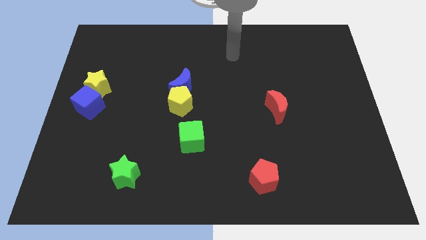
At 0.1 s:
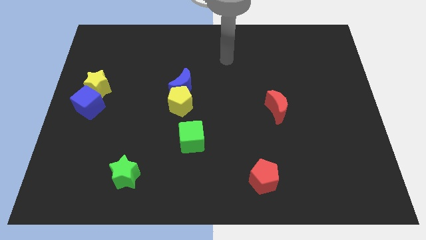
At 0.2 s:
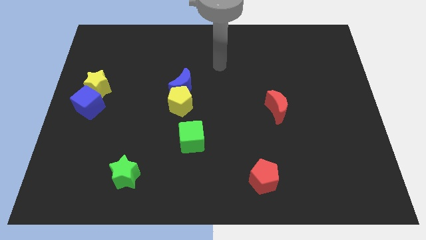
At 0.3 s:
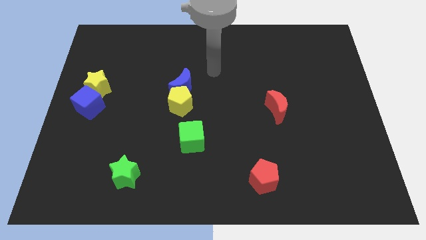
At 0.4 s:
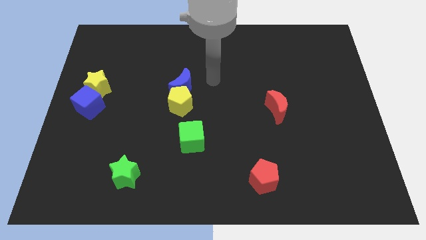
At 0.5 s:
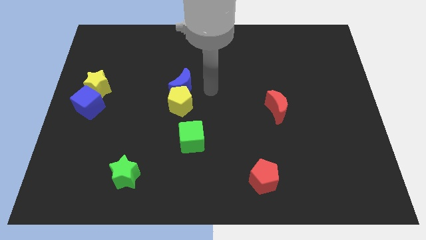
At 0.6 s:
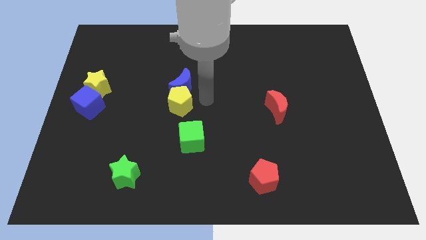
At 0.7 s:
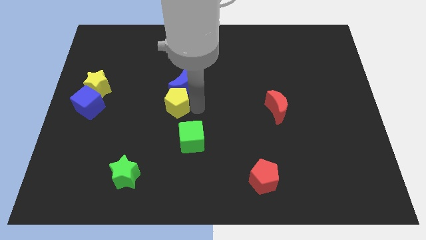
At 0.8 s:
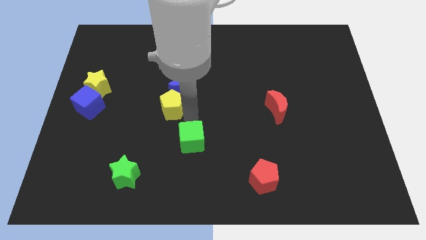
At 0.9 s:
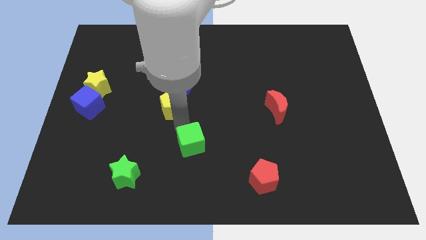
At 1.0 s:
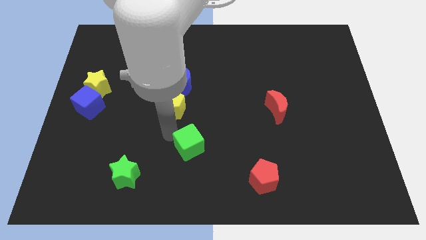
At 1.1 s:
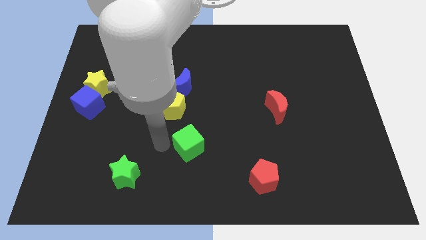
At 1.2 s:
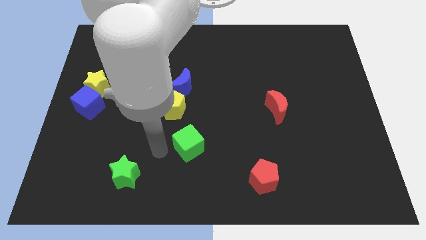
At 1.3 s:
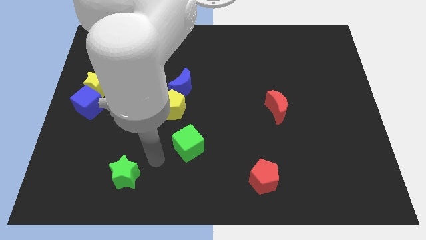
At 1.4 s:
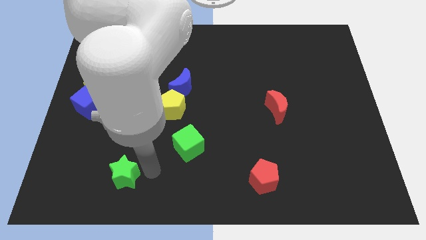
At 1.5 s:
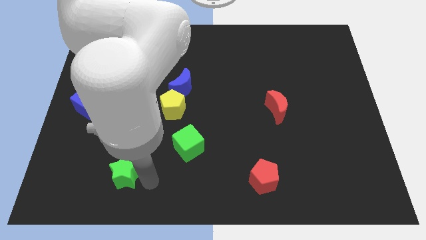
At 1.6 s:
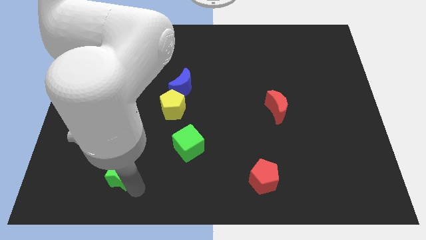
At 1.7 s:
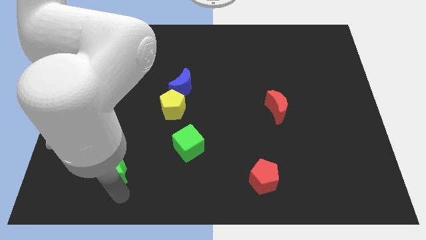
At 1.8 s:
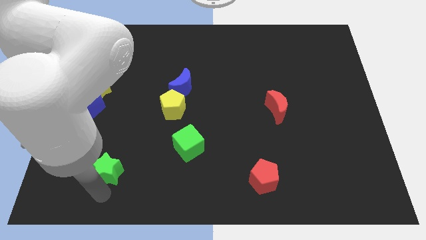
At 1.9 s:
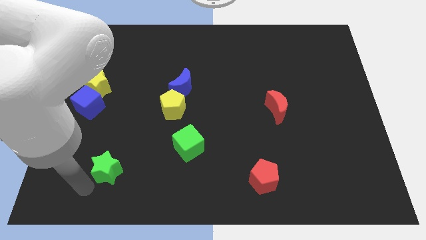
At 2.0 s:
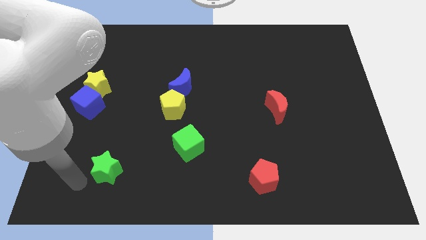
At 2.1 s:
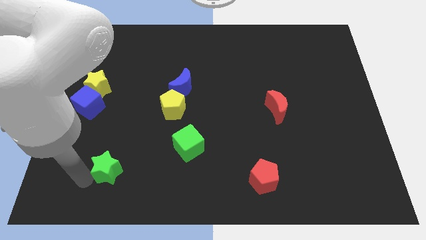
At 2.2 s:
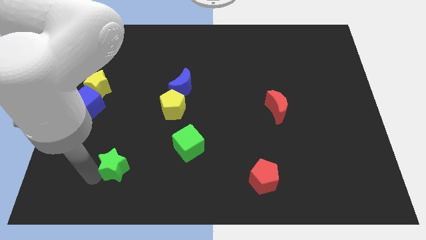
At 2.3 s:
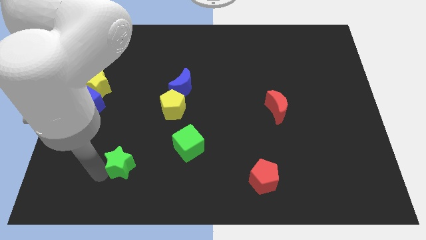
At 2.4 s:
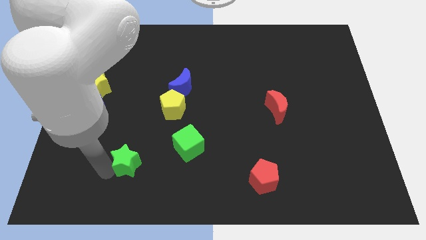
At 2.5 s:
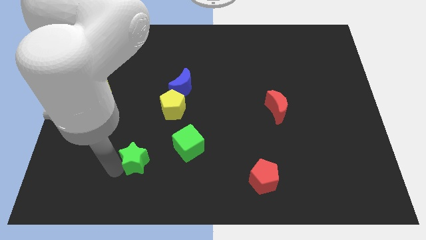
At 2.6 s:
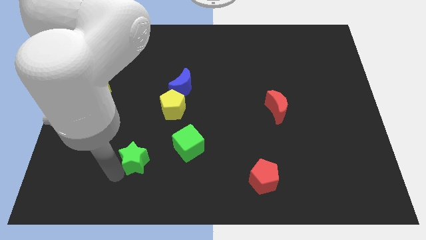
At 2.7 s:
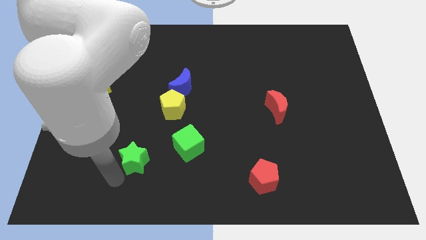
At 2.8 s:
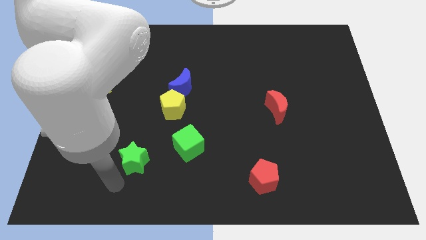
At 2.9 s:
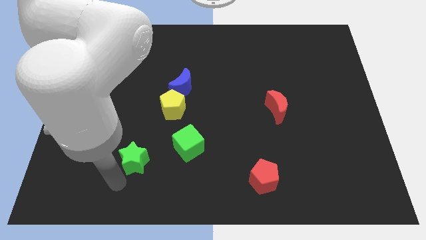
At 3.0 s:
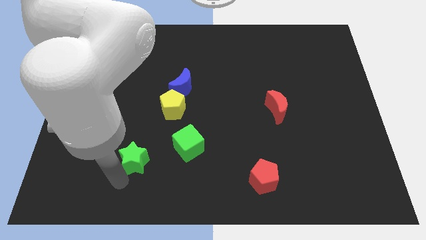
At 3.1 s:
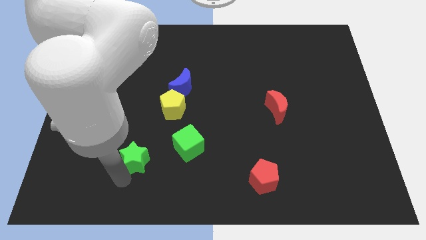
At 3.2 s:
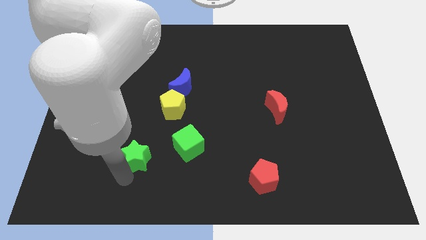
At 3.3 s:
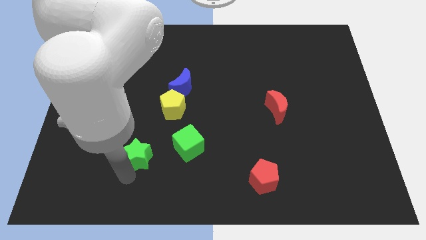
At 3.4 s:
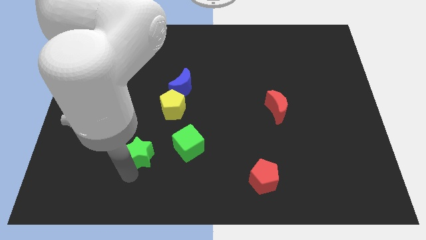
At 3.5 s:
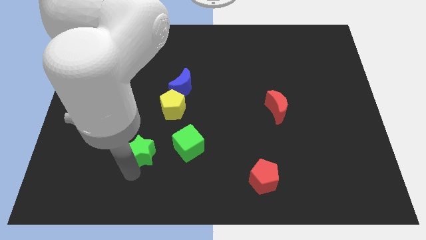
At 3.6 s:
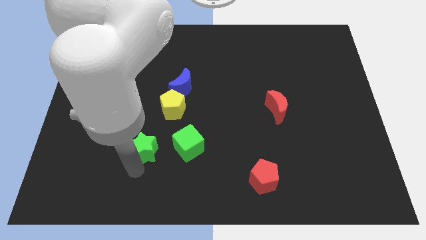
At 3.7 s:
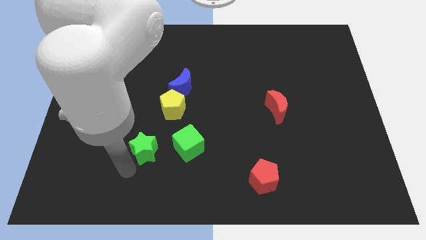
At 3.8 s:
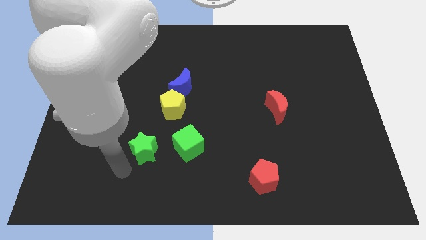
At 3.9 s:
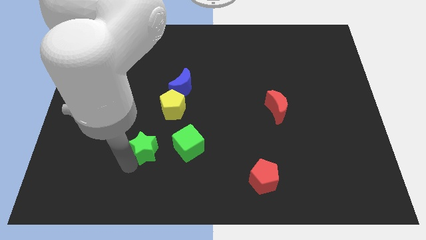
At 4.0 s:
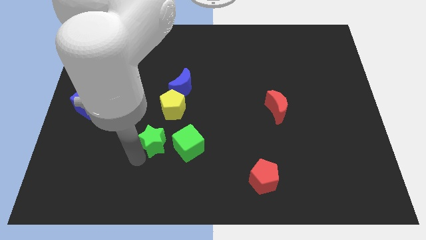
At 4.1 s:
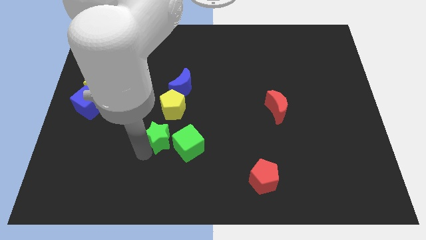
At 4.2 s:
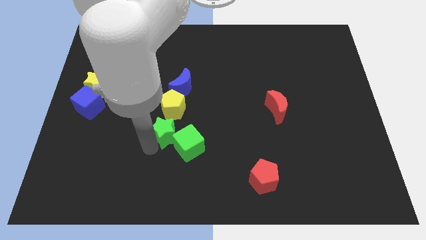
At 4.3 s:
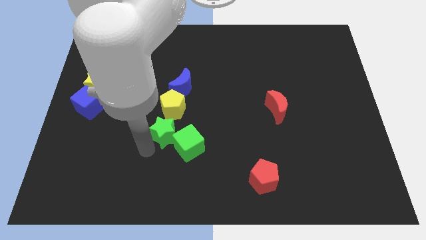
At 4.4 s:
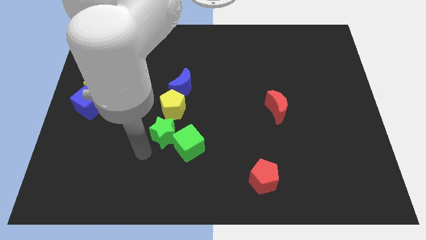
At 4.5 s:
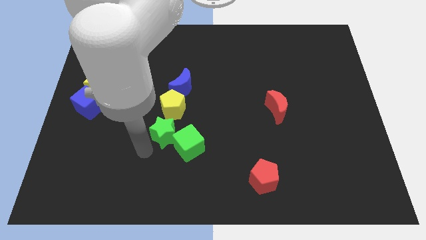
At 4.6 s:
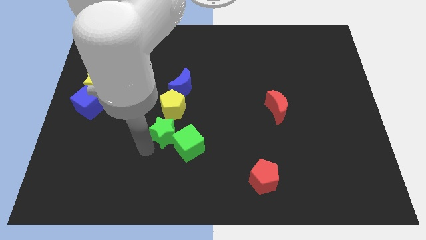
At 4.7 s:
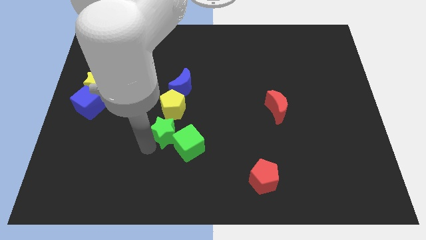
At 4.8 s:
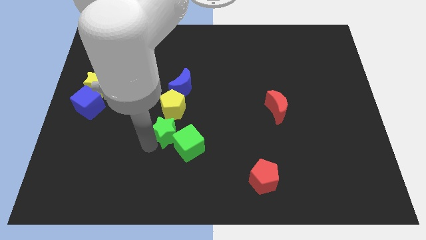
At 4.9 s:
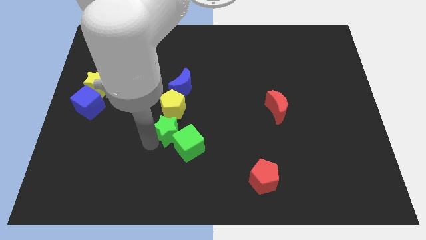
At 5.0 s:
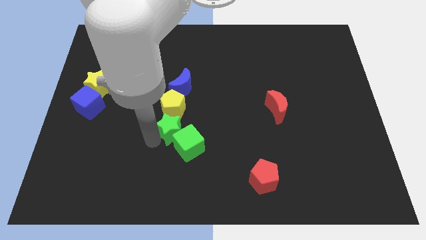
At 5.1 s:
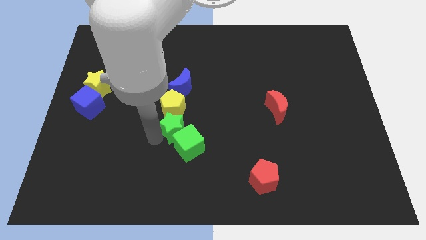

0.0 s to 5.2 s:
push the green star to the middle of the board

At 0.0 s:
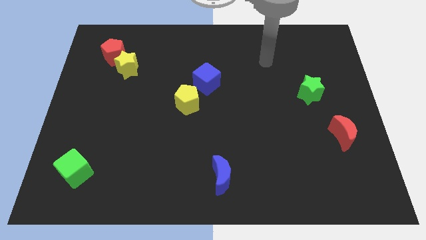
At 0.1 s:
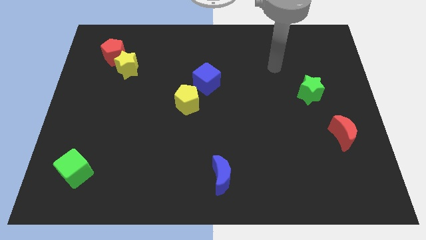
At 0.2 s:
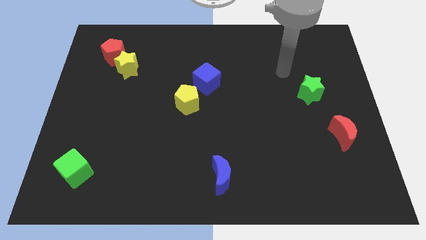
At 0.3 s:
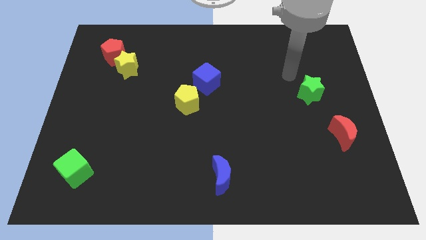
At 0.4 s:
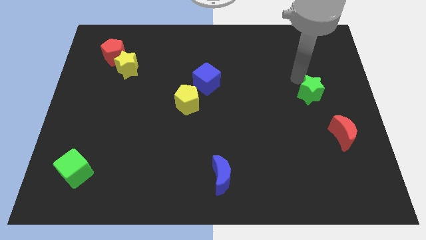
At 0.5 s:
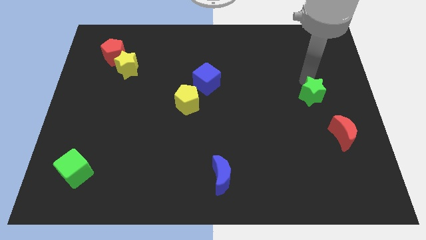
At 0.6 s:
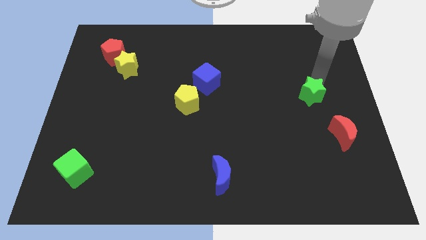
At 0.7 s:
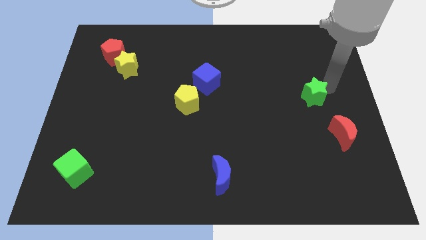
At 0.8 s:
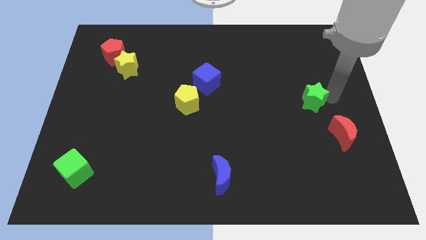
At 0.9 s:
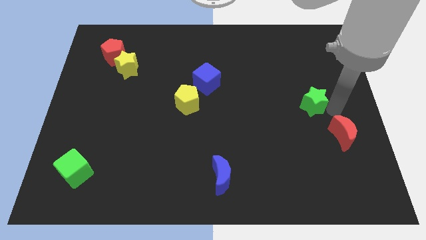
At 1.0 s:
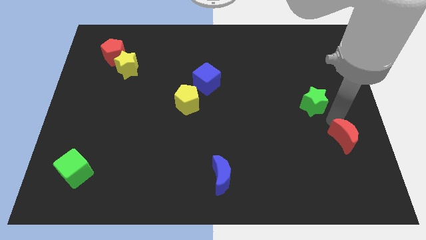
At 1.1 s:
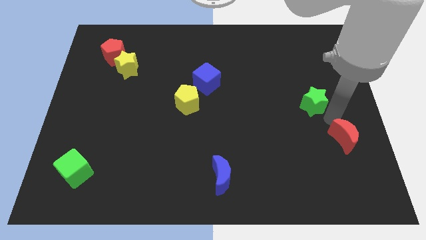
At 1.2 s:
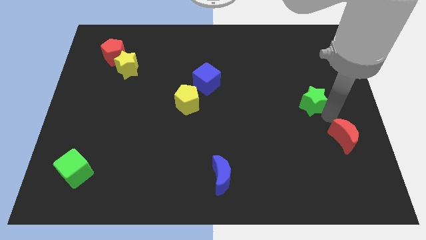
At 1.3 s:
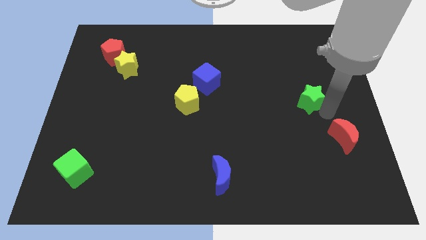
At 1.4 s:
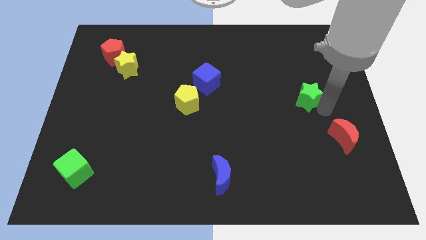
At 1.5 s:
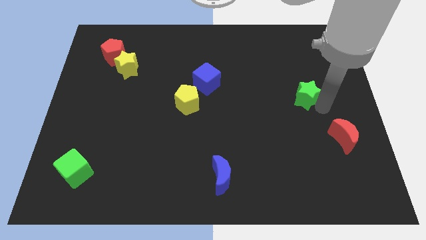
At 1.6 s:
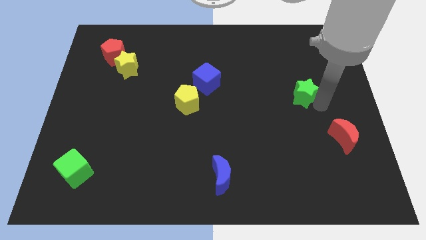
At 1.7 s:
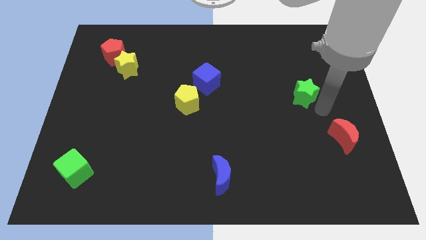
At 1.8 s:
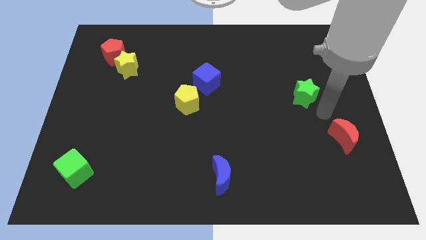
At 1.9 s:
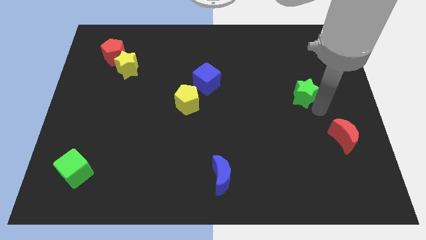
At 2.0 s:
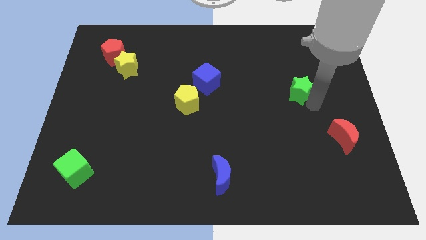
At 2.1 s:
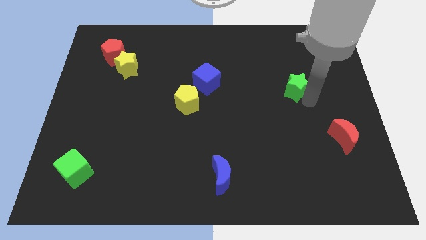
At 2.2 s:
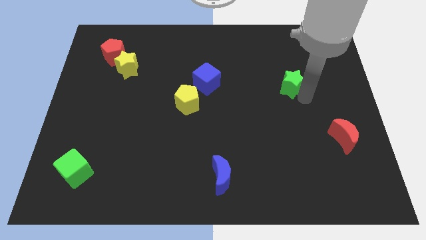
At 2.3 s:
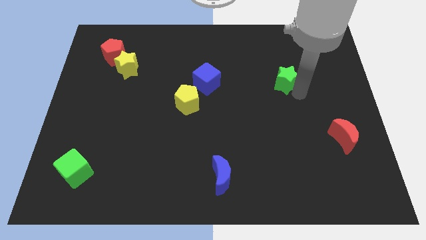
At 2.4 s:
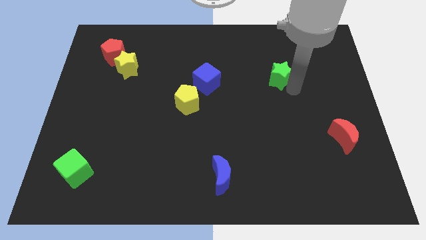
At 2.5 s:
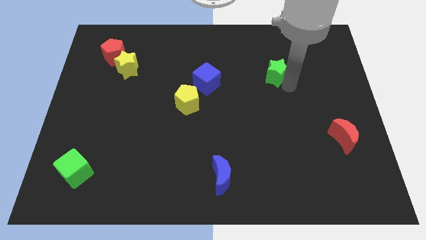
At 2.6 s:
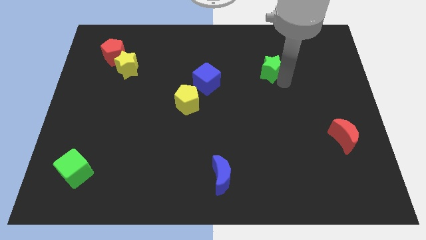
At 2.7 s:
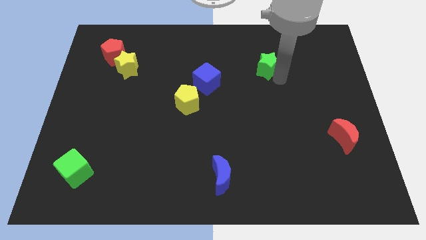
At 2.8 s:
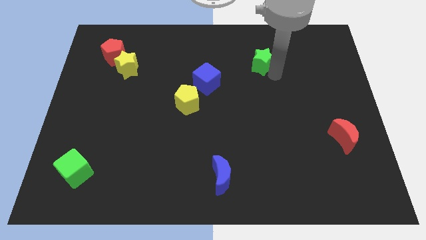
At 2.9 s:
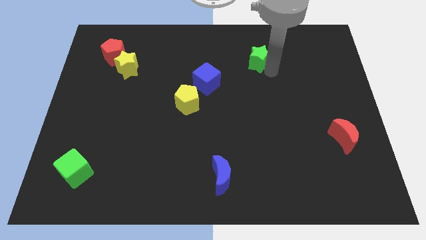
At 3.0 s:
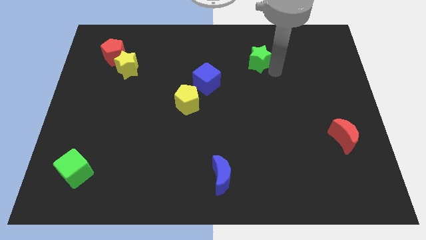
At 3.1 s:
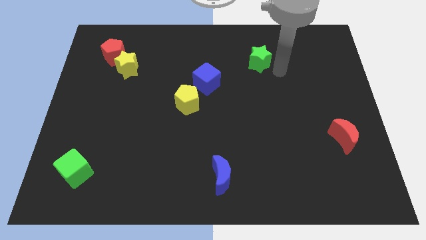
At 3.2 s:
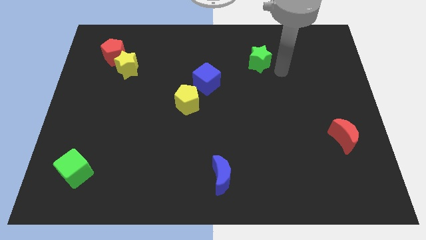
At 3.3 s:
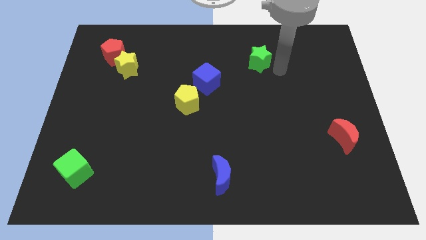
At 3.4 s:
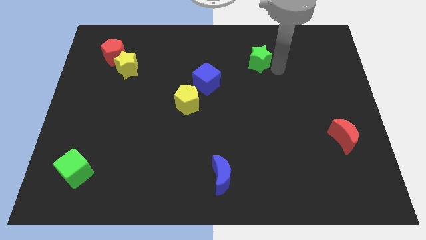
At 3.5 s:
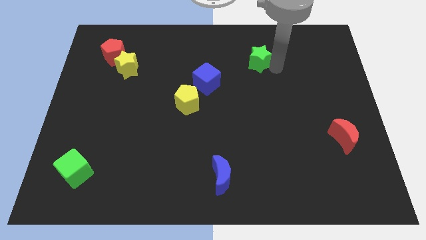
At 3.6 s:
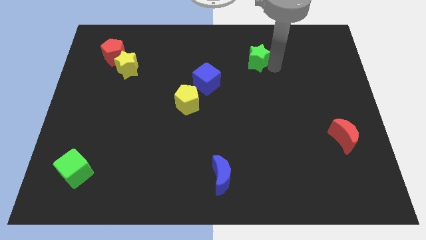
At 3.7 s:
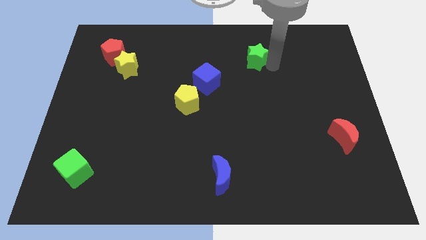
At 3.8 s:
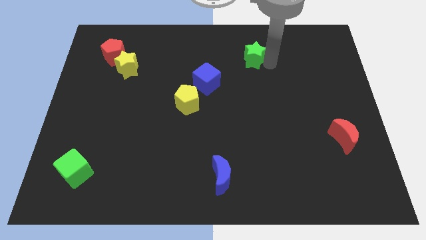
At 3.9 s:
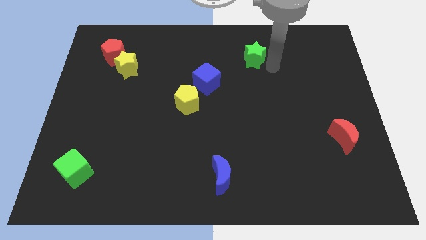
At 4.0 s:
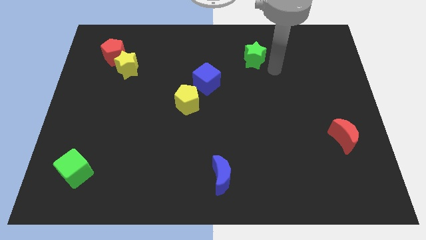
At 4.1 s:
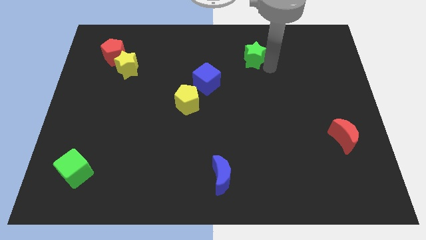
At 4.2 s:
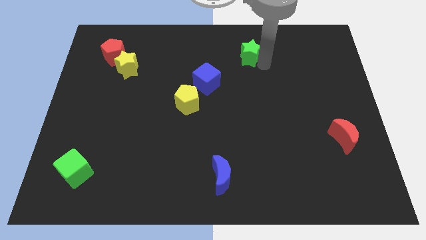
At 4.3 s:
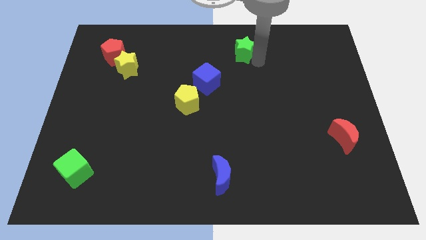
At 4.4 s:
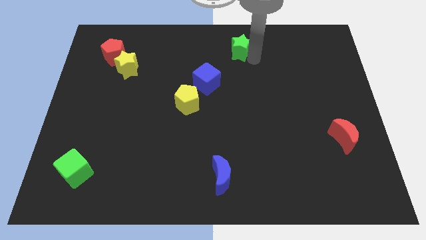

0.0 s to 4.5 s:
slide the green star to the towards your base
